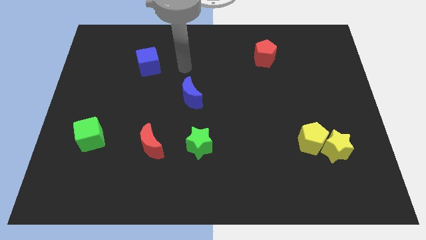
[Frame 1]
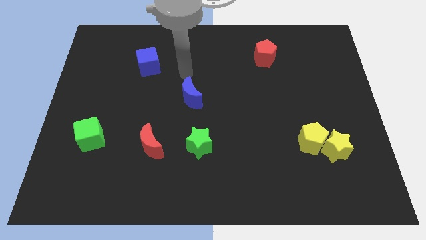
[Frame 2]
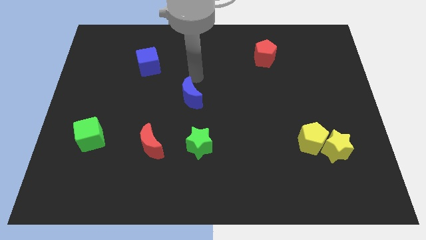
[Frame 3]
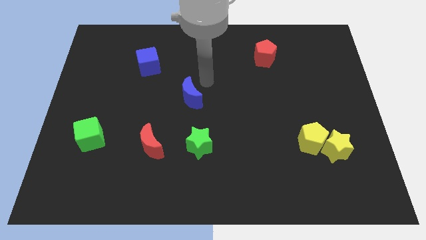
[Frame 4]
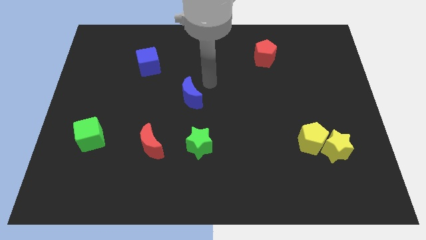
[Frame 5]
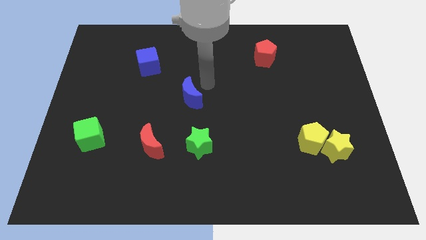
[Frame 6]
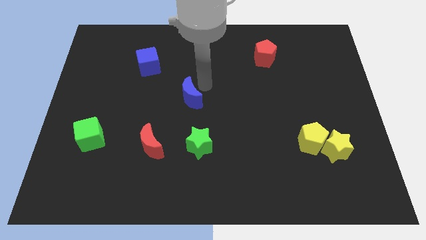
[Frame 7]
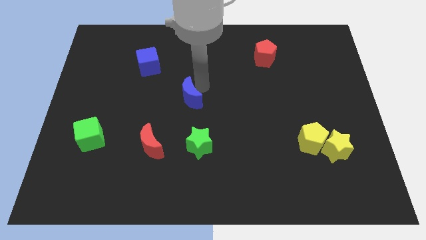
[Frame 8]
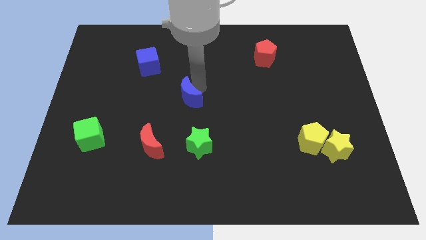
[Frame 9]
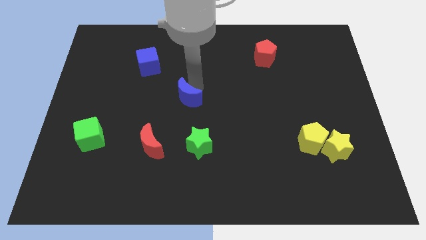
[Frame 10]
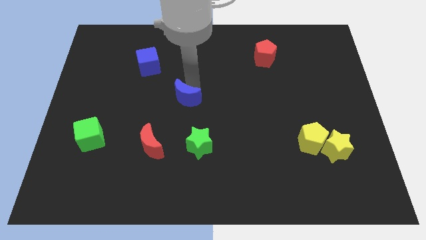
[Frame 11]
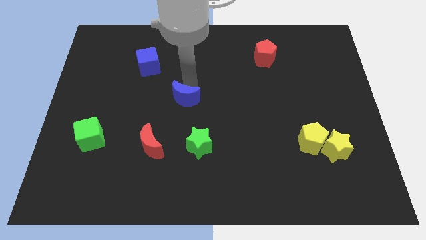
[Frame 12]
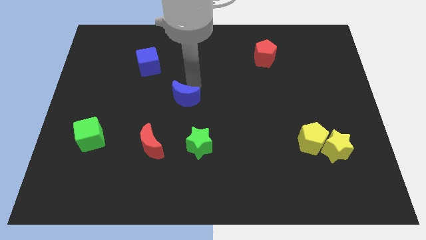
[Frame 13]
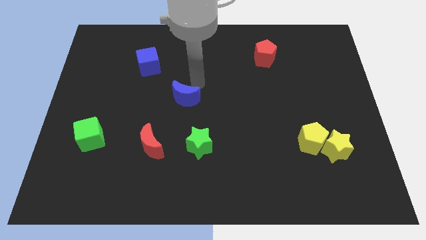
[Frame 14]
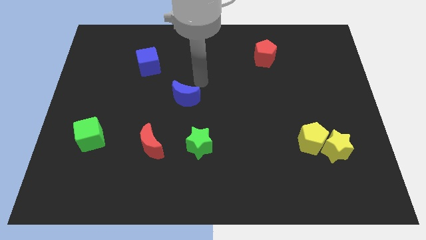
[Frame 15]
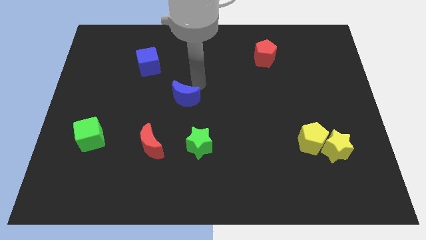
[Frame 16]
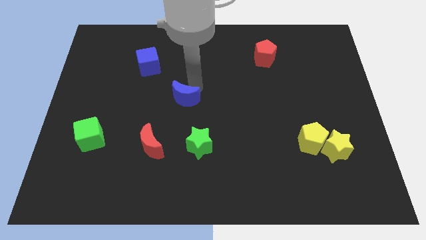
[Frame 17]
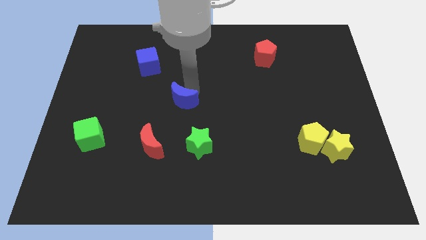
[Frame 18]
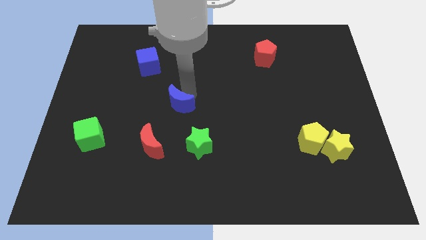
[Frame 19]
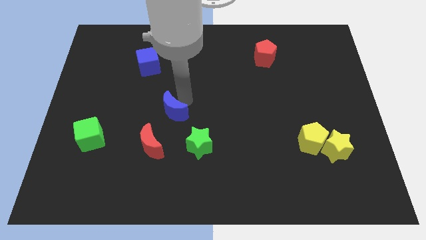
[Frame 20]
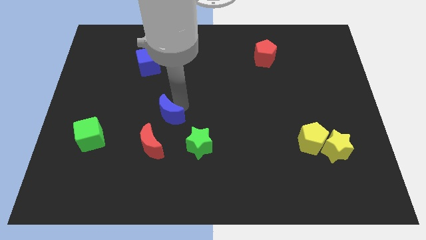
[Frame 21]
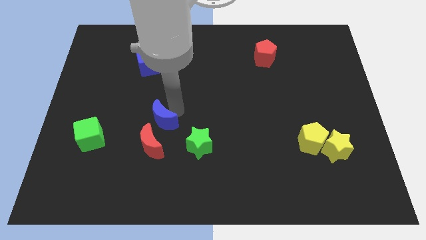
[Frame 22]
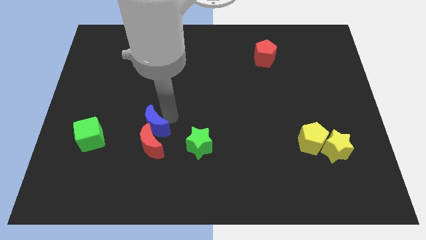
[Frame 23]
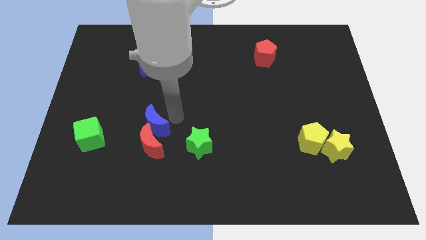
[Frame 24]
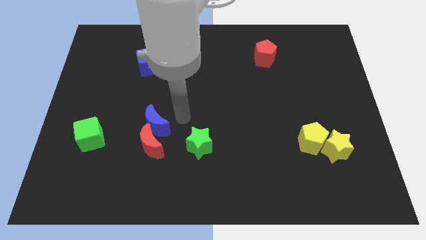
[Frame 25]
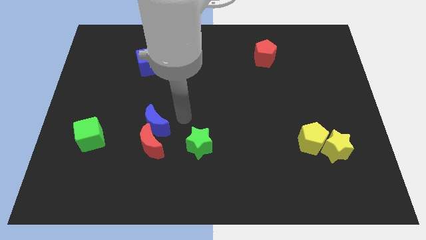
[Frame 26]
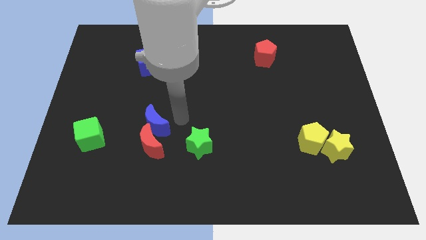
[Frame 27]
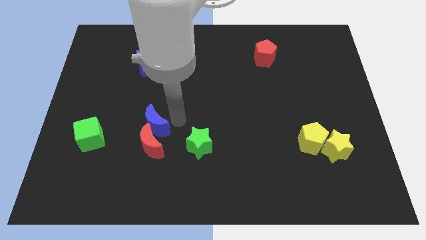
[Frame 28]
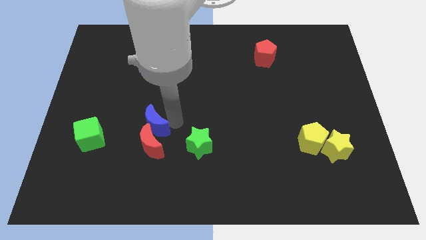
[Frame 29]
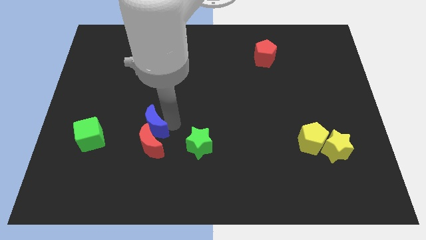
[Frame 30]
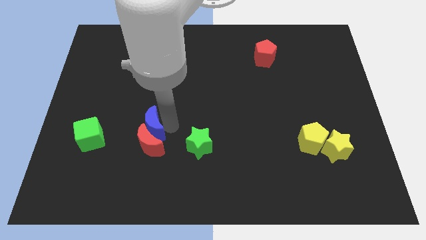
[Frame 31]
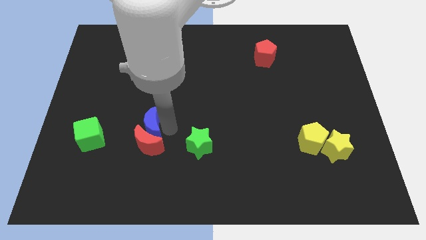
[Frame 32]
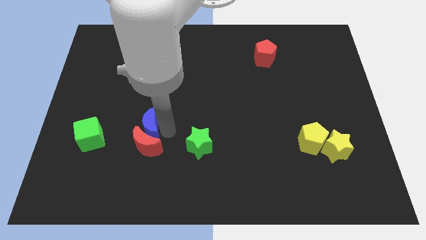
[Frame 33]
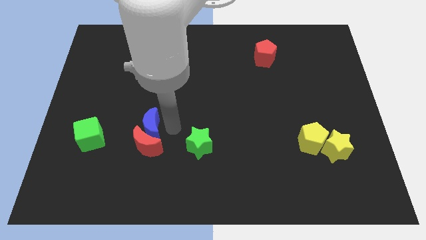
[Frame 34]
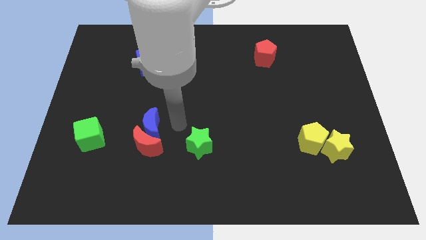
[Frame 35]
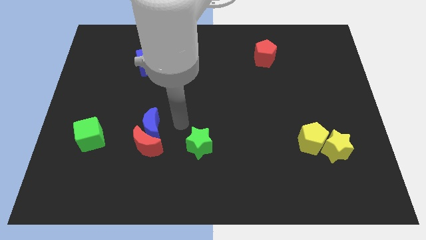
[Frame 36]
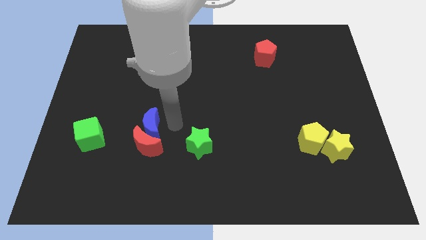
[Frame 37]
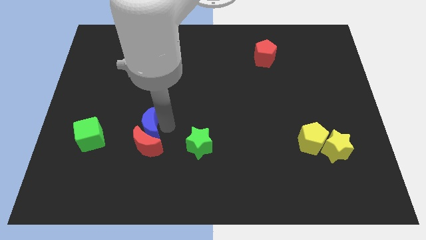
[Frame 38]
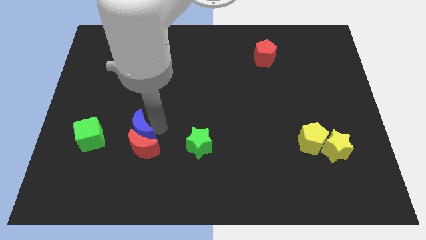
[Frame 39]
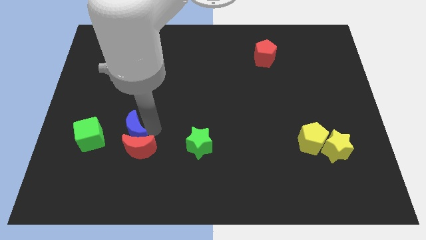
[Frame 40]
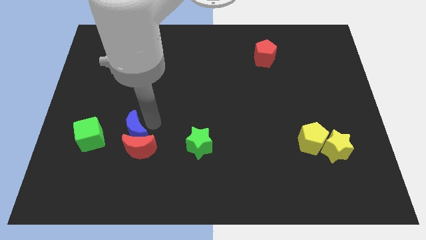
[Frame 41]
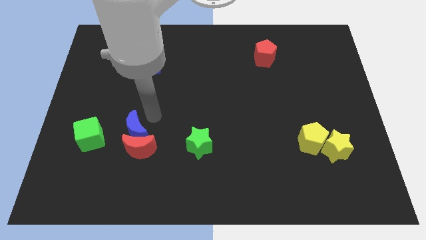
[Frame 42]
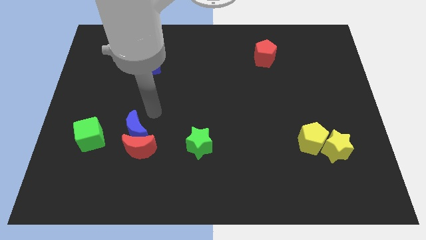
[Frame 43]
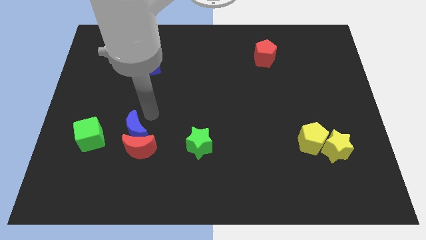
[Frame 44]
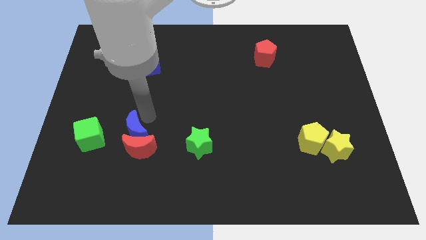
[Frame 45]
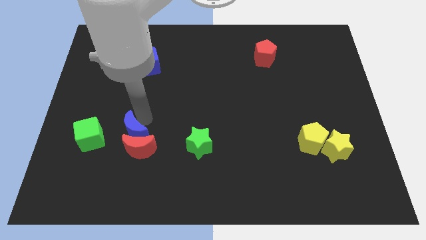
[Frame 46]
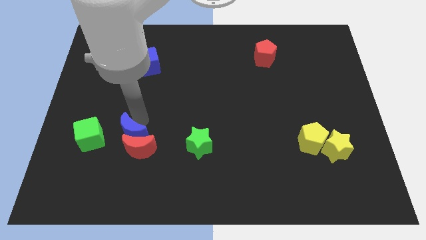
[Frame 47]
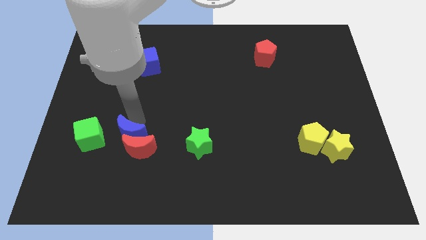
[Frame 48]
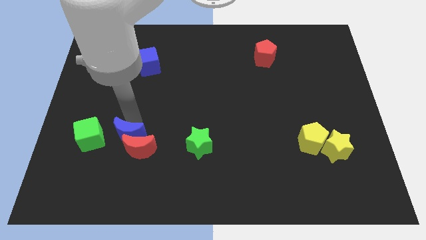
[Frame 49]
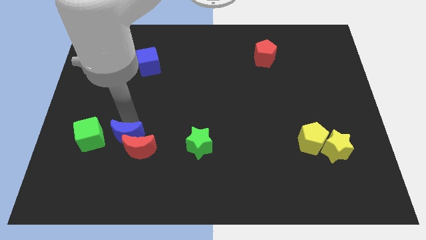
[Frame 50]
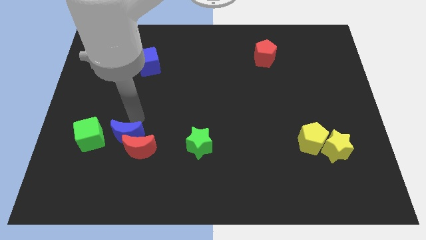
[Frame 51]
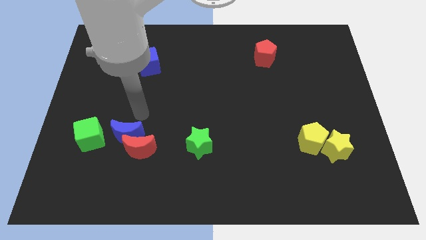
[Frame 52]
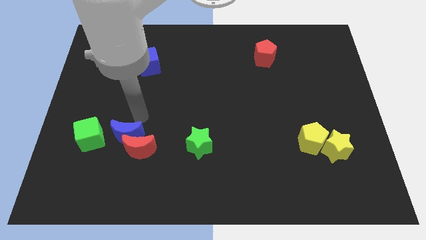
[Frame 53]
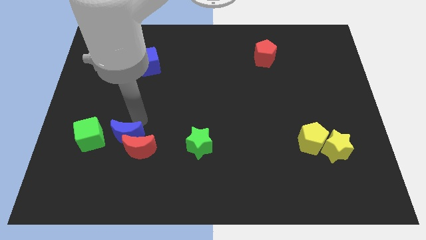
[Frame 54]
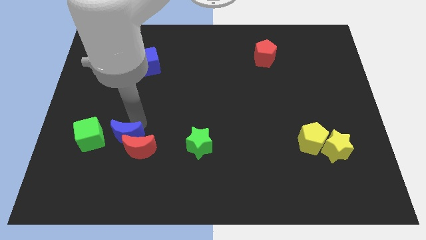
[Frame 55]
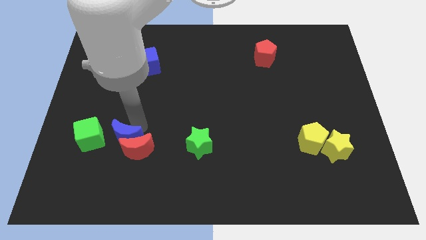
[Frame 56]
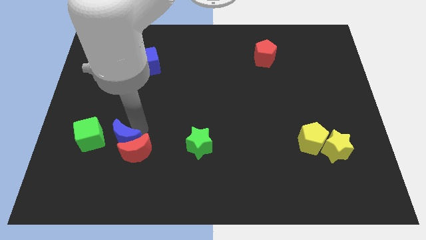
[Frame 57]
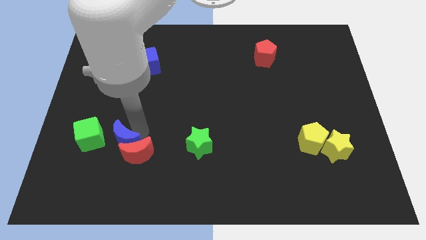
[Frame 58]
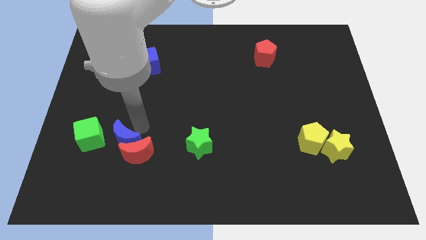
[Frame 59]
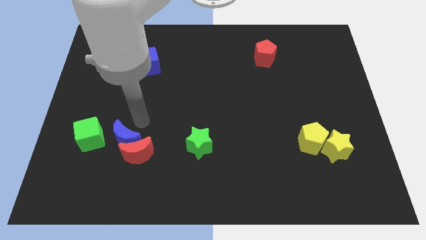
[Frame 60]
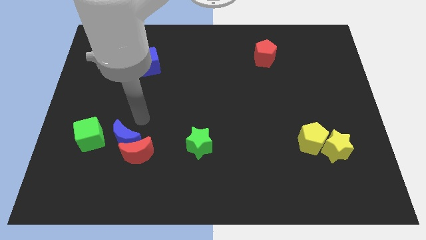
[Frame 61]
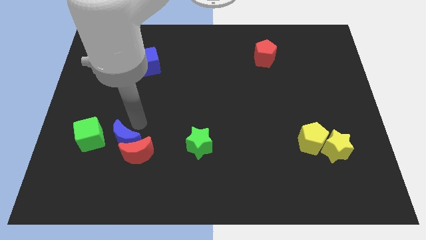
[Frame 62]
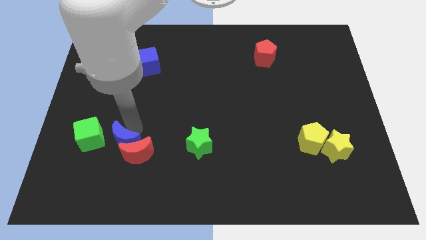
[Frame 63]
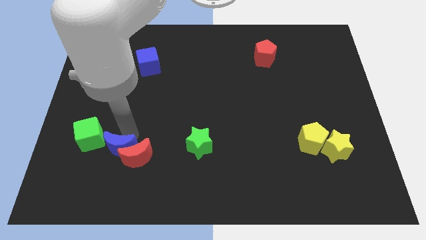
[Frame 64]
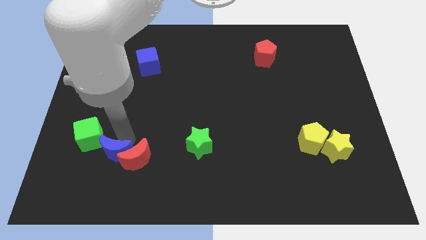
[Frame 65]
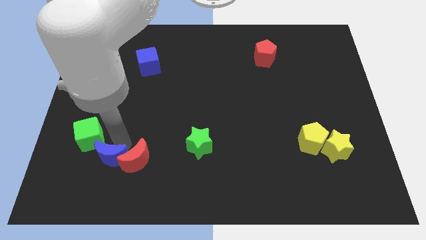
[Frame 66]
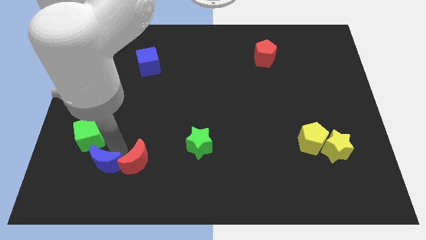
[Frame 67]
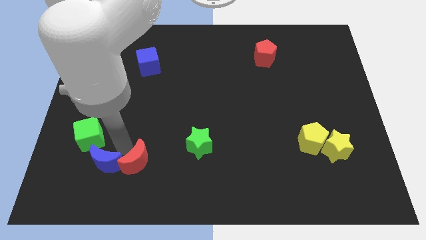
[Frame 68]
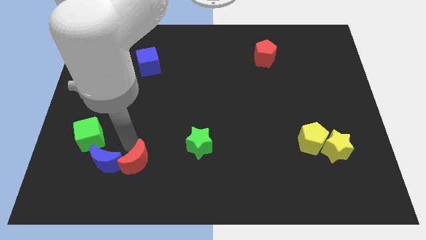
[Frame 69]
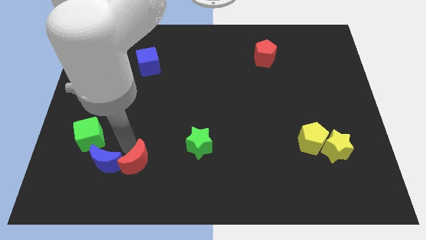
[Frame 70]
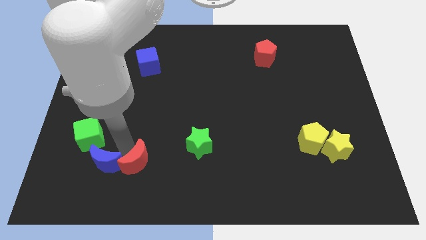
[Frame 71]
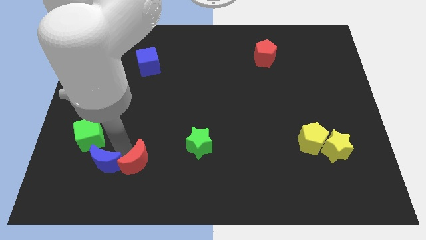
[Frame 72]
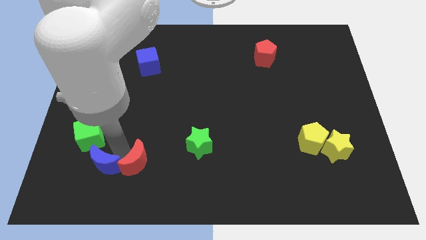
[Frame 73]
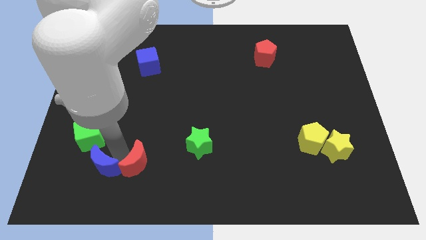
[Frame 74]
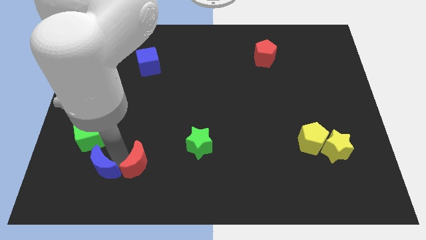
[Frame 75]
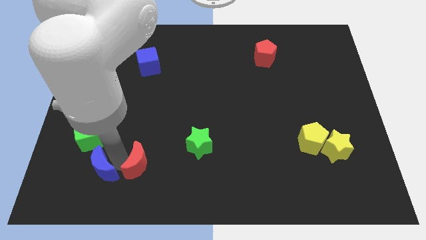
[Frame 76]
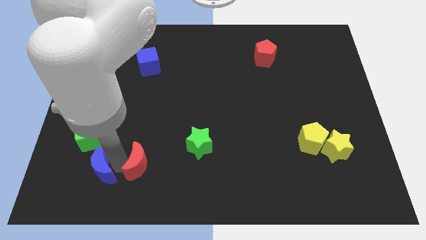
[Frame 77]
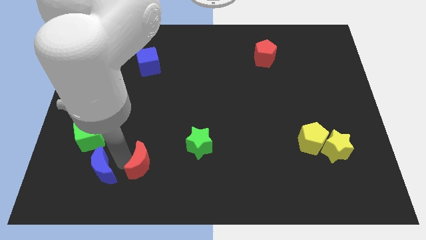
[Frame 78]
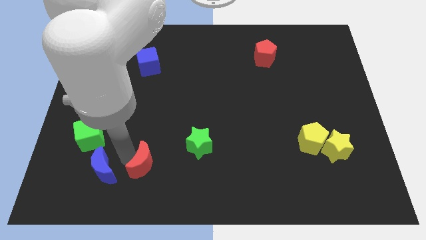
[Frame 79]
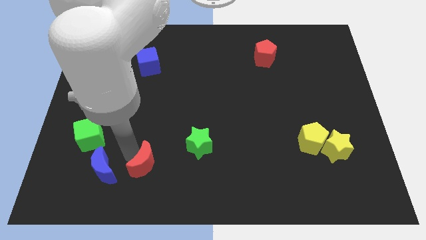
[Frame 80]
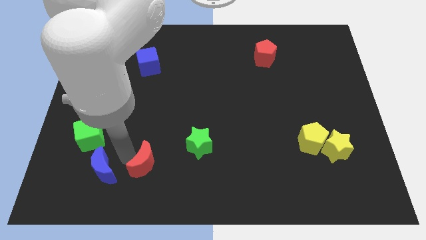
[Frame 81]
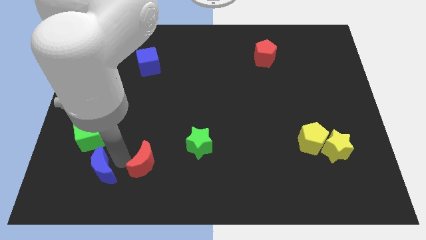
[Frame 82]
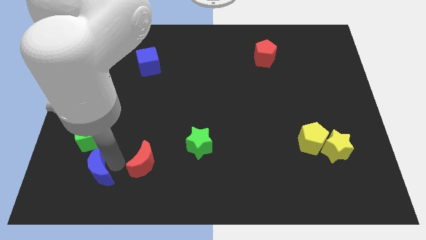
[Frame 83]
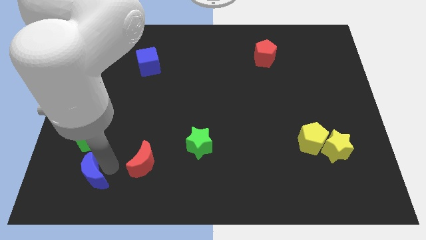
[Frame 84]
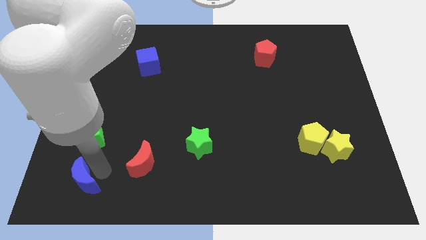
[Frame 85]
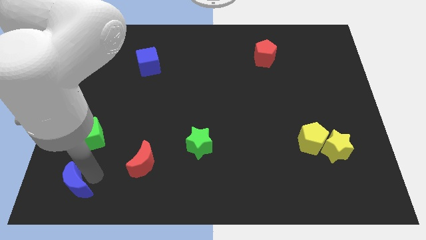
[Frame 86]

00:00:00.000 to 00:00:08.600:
move the blue moon to the lower left corner
